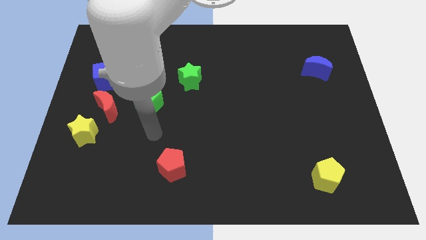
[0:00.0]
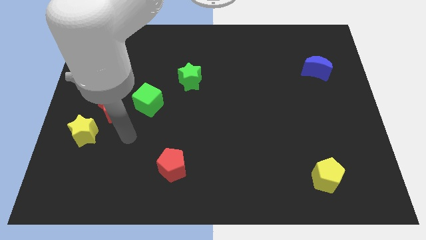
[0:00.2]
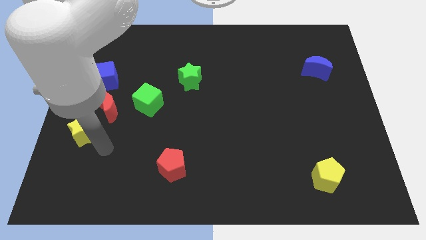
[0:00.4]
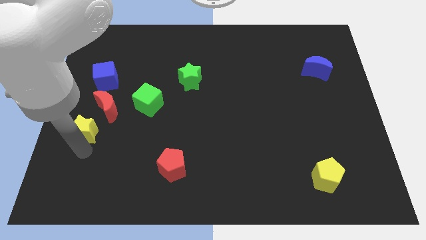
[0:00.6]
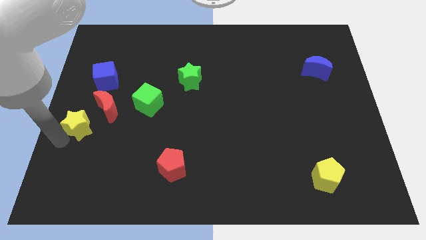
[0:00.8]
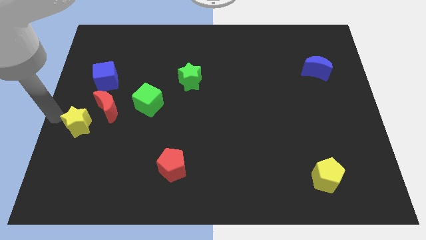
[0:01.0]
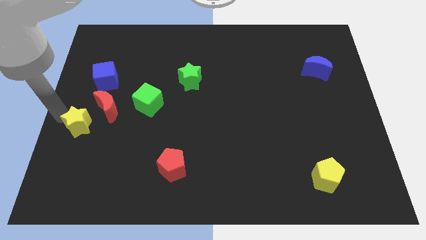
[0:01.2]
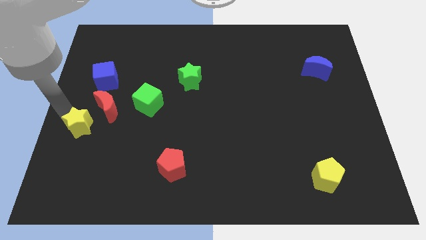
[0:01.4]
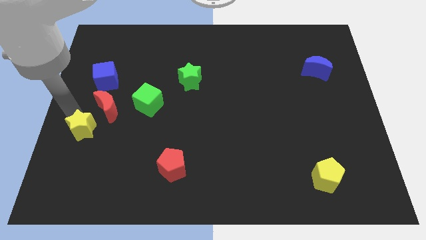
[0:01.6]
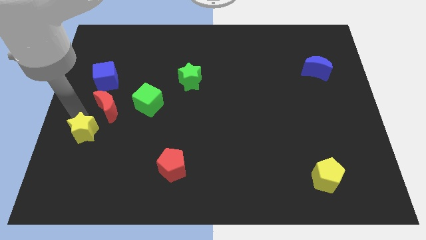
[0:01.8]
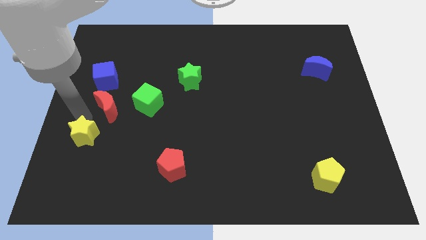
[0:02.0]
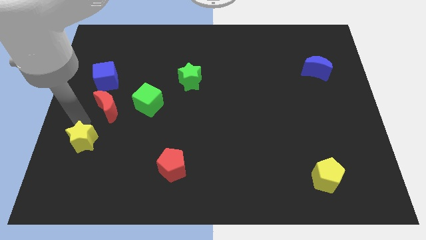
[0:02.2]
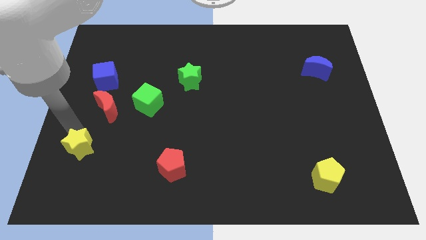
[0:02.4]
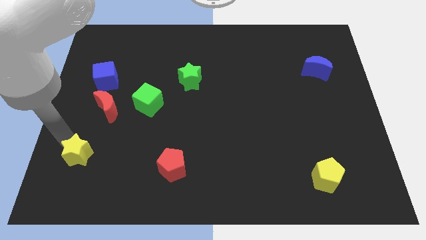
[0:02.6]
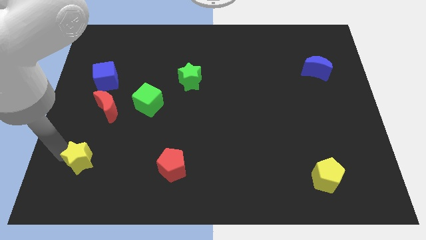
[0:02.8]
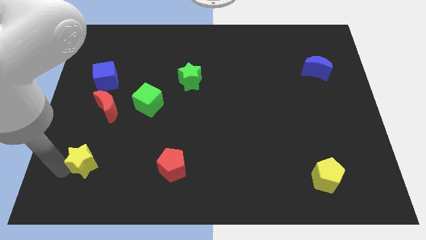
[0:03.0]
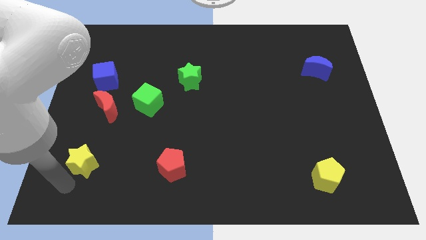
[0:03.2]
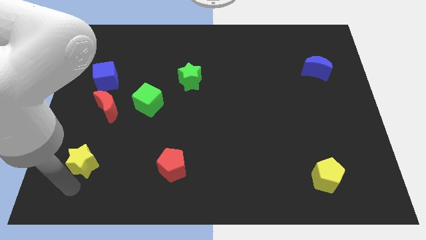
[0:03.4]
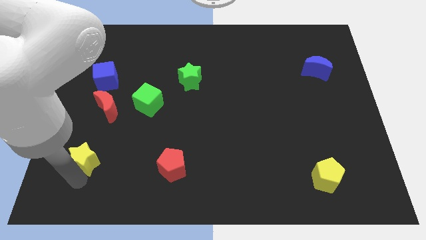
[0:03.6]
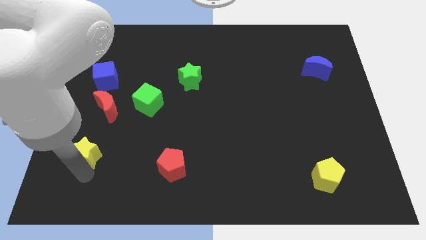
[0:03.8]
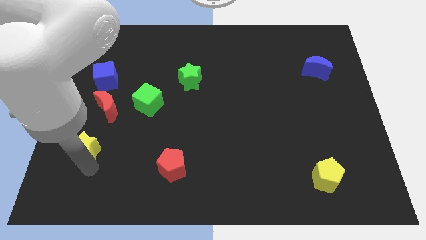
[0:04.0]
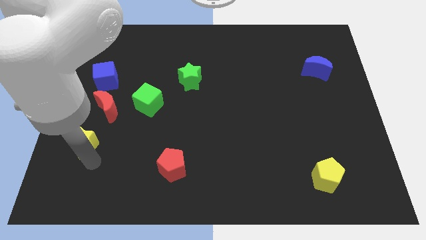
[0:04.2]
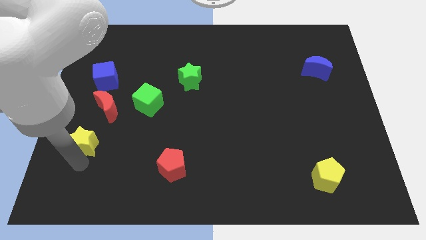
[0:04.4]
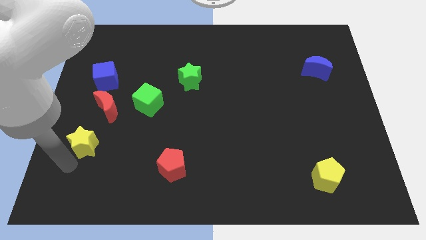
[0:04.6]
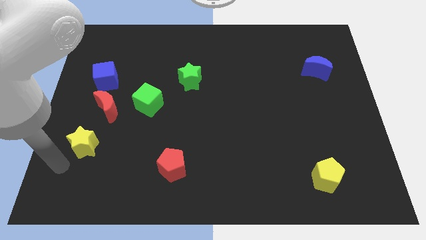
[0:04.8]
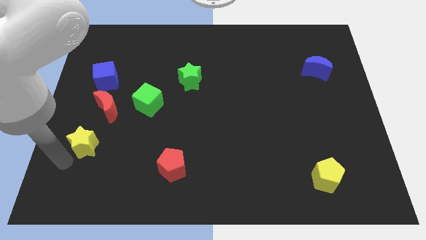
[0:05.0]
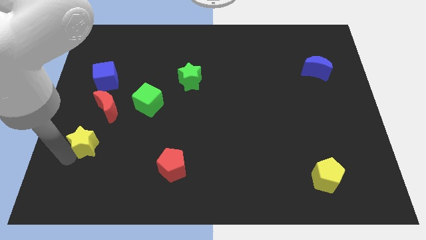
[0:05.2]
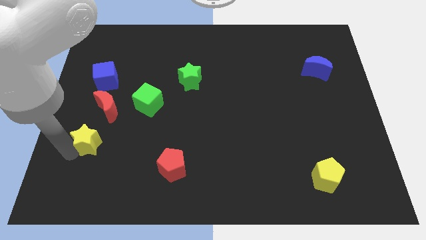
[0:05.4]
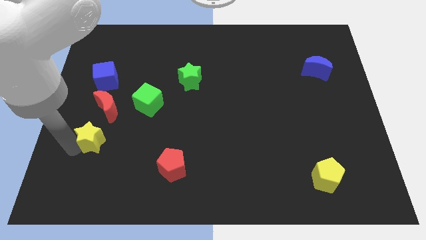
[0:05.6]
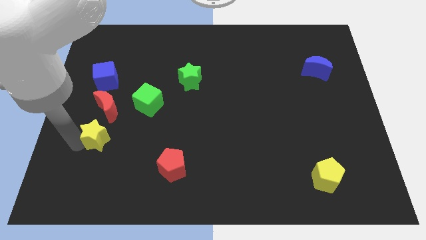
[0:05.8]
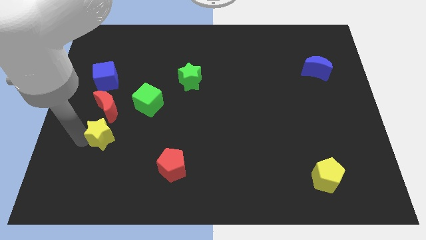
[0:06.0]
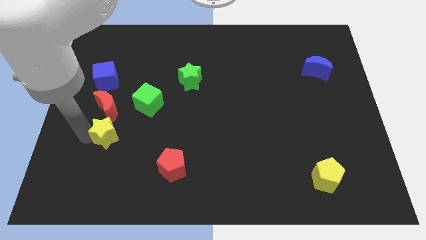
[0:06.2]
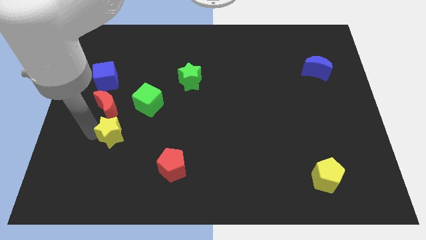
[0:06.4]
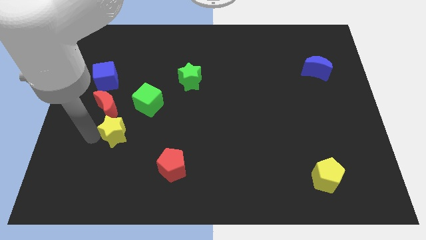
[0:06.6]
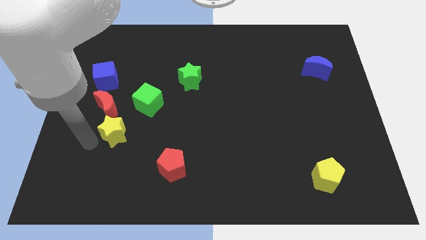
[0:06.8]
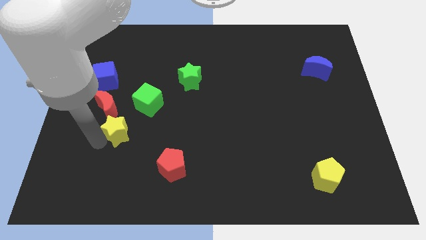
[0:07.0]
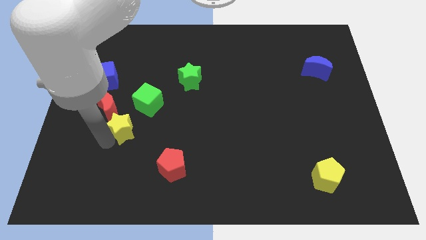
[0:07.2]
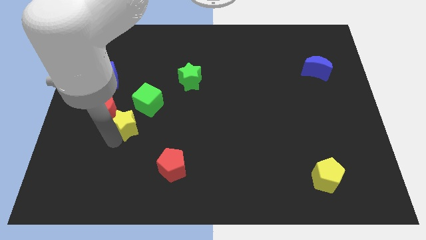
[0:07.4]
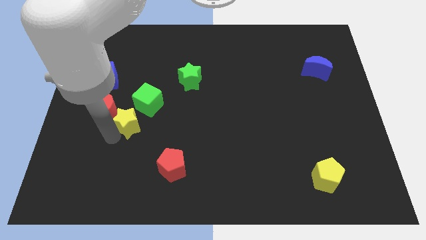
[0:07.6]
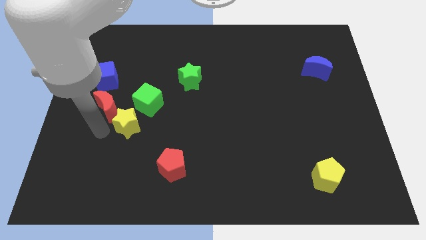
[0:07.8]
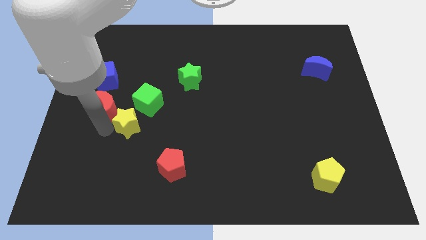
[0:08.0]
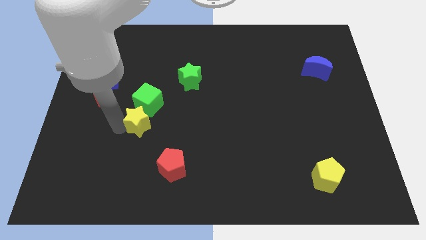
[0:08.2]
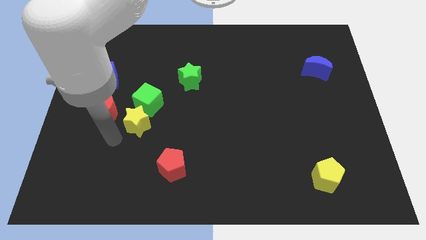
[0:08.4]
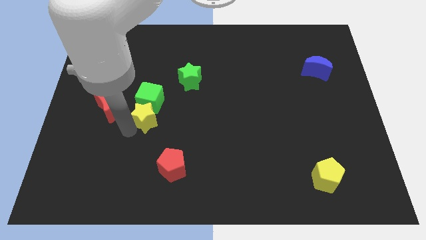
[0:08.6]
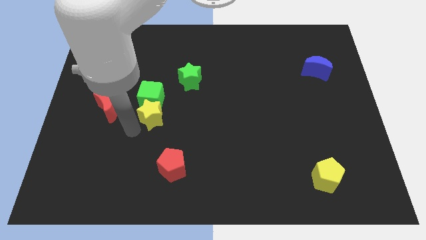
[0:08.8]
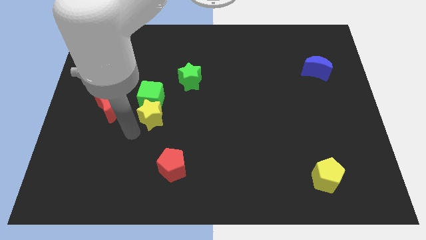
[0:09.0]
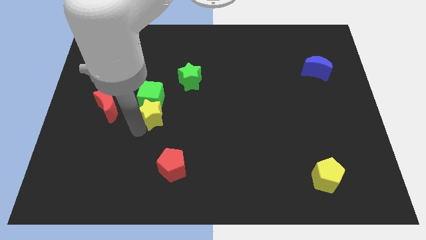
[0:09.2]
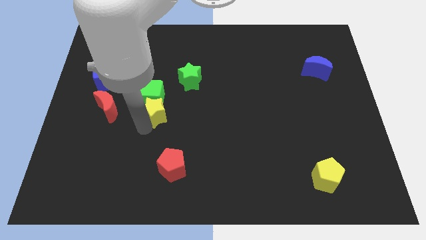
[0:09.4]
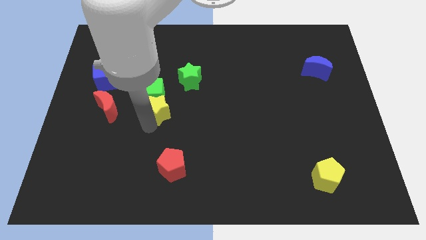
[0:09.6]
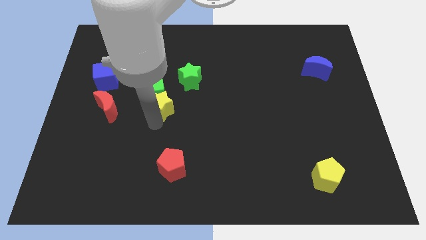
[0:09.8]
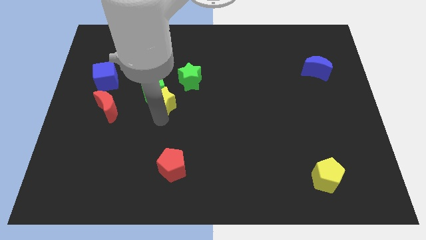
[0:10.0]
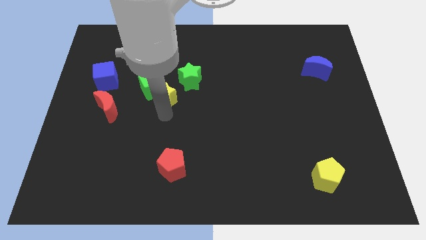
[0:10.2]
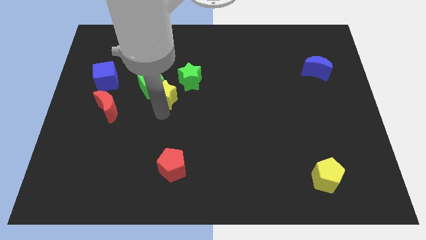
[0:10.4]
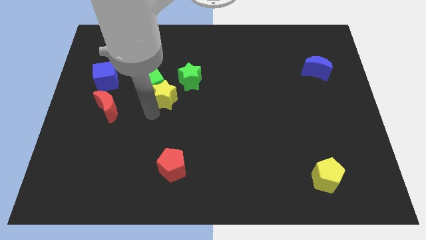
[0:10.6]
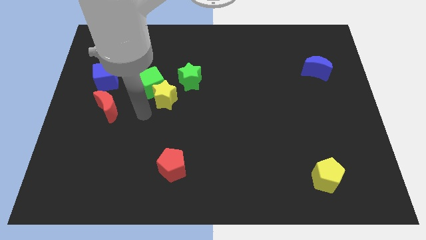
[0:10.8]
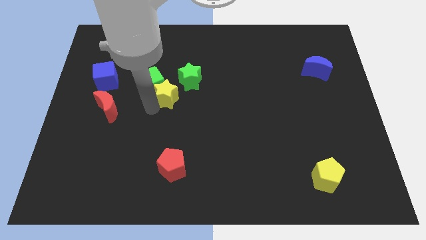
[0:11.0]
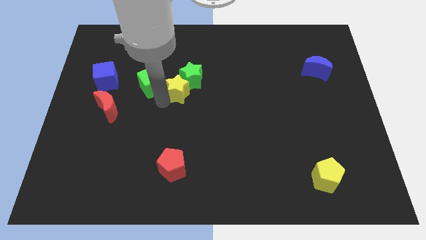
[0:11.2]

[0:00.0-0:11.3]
put the yellow star towards the green star

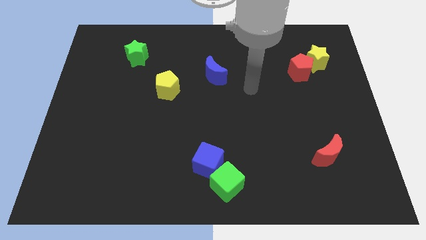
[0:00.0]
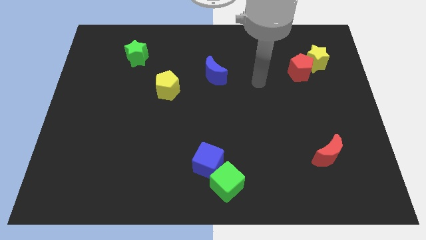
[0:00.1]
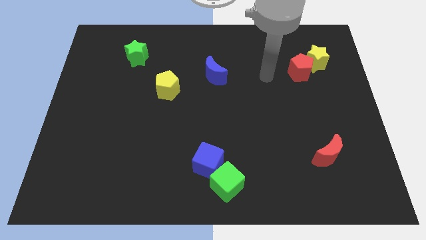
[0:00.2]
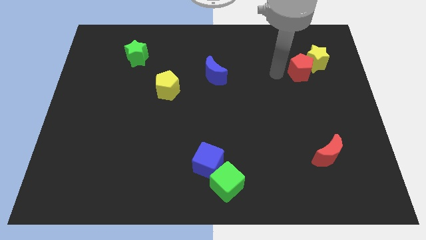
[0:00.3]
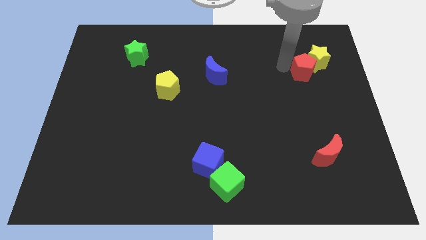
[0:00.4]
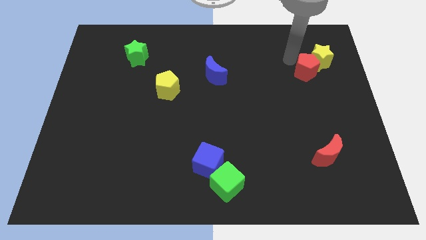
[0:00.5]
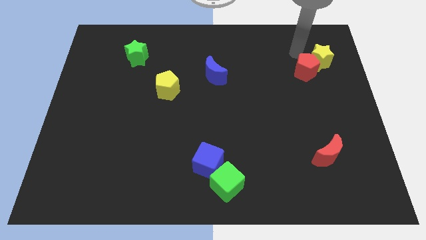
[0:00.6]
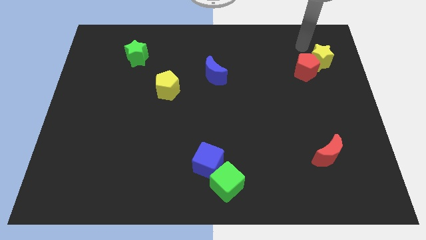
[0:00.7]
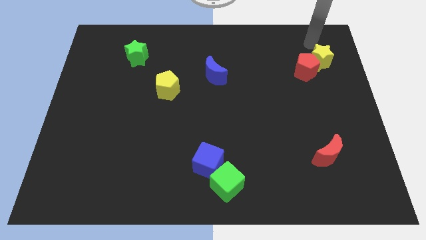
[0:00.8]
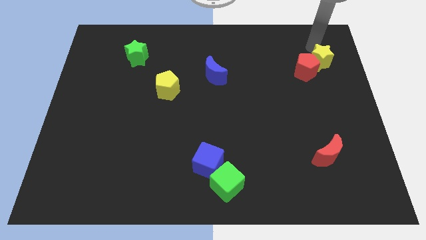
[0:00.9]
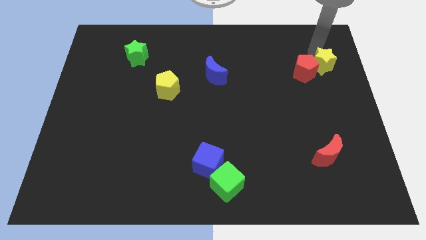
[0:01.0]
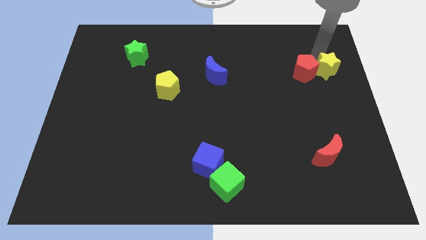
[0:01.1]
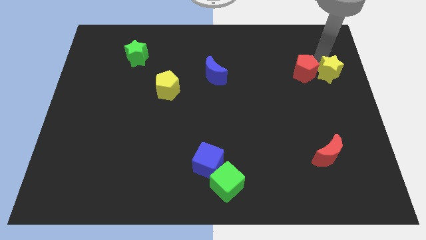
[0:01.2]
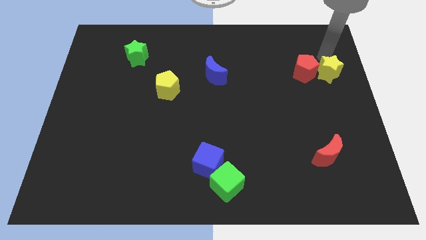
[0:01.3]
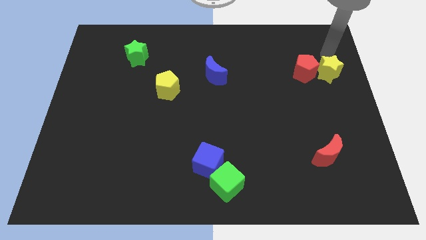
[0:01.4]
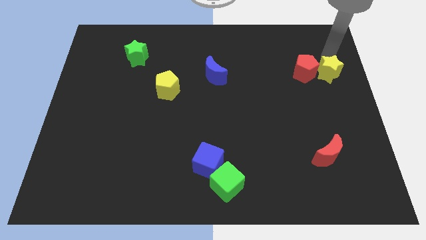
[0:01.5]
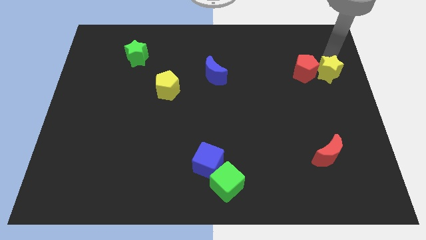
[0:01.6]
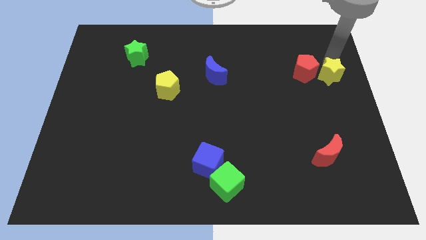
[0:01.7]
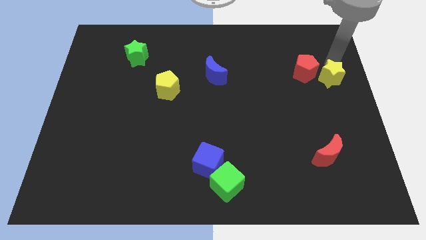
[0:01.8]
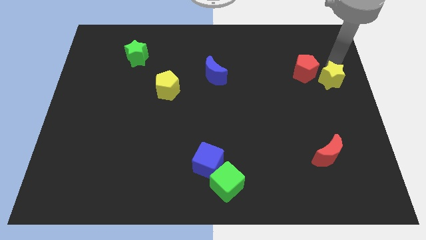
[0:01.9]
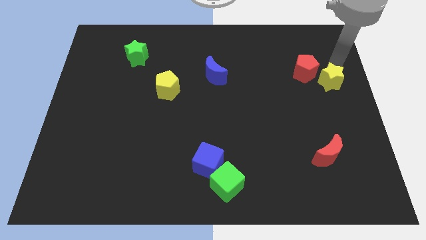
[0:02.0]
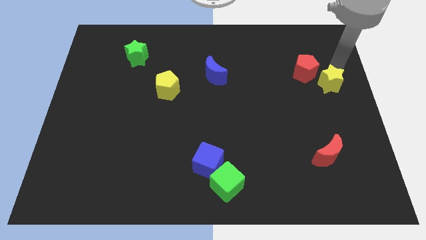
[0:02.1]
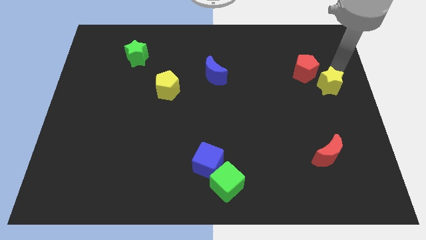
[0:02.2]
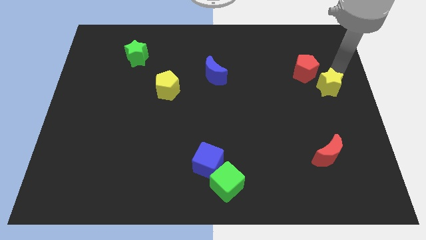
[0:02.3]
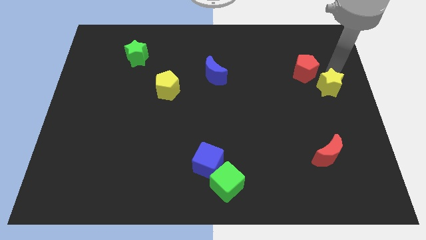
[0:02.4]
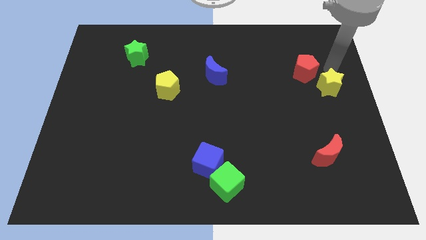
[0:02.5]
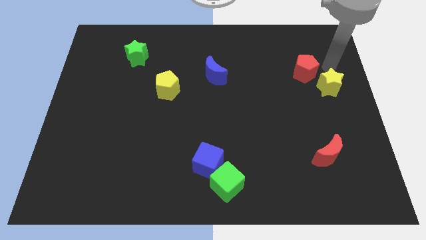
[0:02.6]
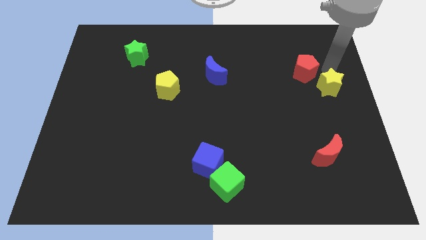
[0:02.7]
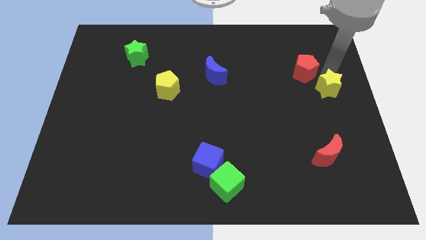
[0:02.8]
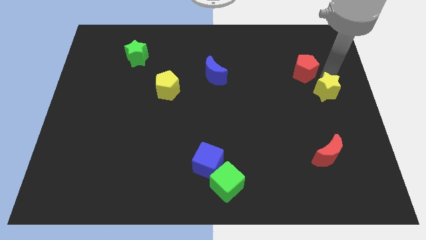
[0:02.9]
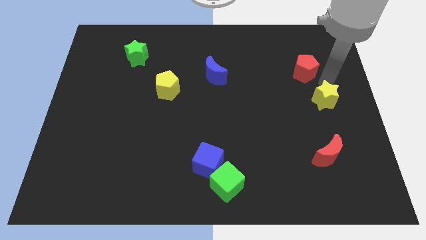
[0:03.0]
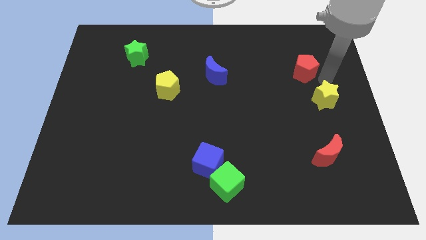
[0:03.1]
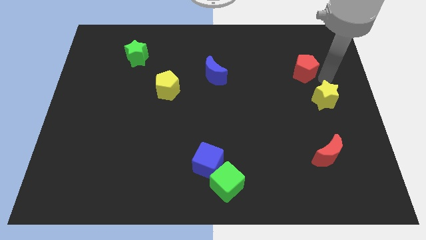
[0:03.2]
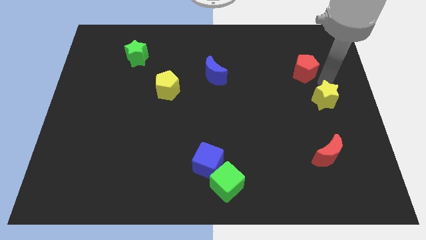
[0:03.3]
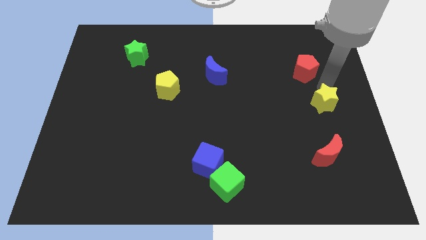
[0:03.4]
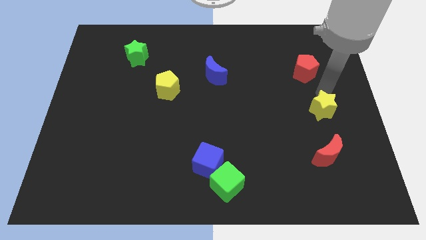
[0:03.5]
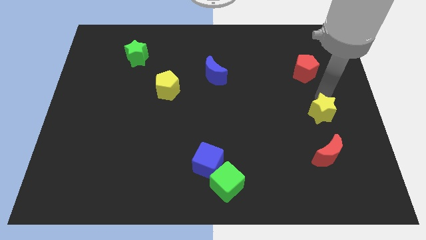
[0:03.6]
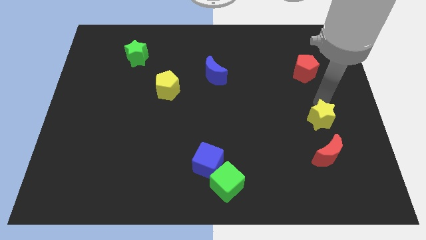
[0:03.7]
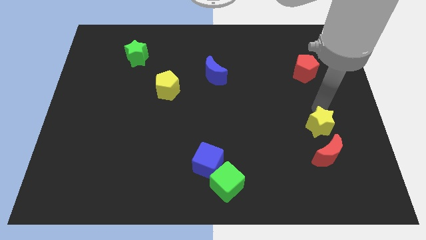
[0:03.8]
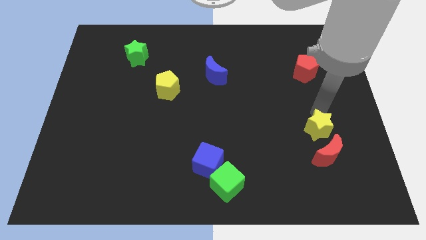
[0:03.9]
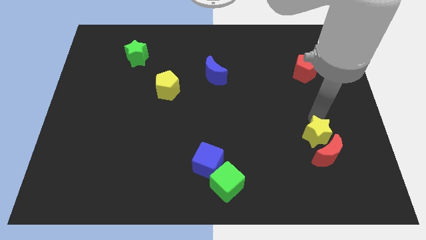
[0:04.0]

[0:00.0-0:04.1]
move the yellow star next to the red moon
